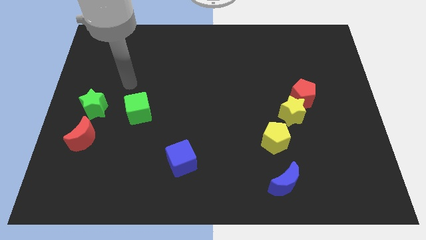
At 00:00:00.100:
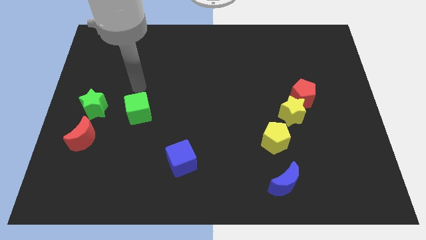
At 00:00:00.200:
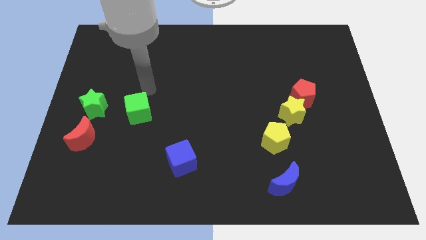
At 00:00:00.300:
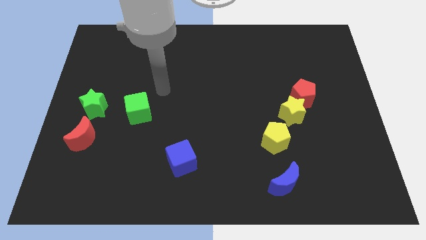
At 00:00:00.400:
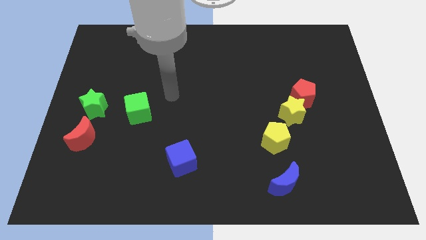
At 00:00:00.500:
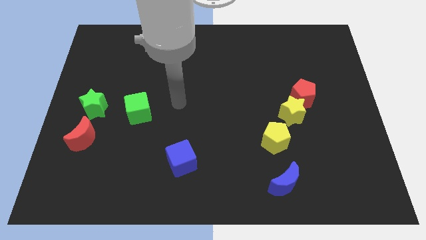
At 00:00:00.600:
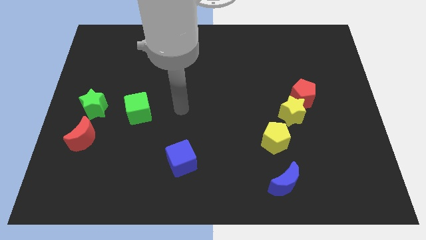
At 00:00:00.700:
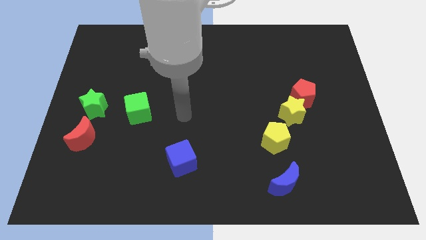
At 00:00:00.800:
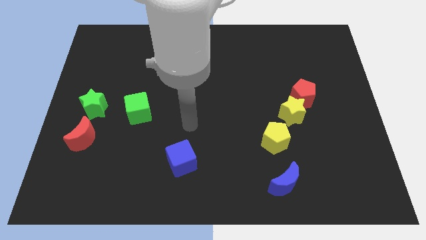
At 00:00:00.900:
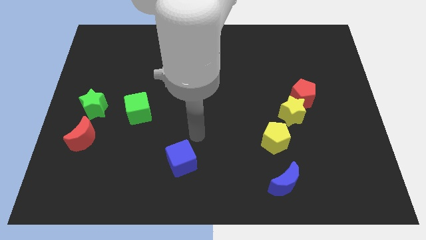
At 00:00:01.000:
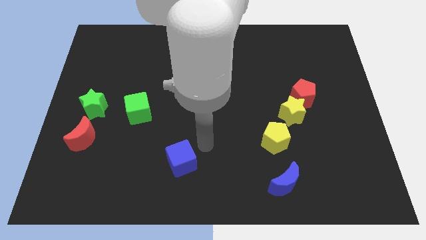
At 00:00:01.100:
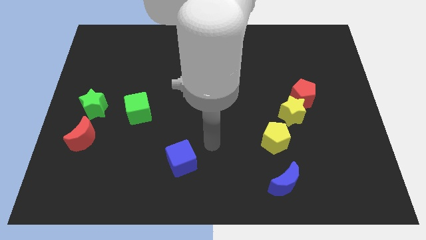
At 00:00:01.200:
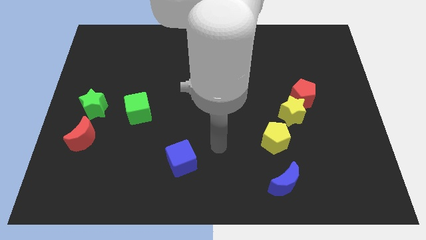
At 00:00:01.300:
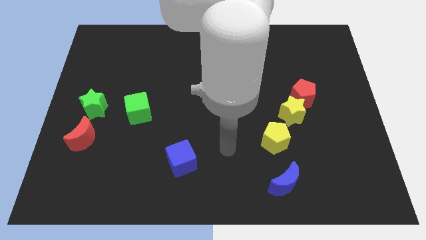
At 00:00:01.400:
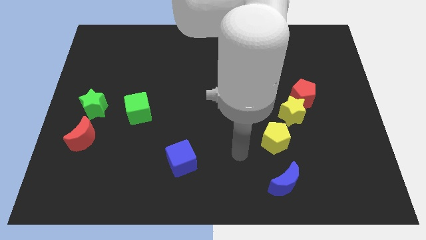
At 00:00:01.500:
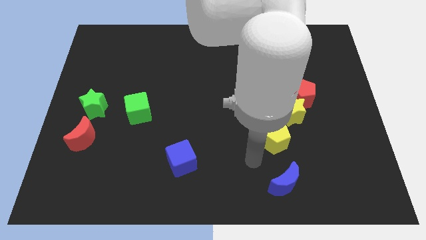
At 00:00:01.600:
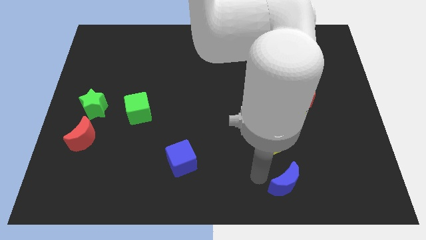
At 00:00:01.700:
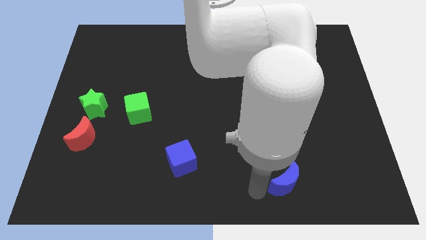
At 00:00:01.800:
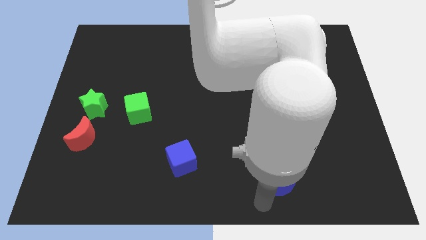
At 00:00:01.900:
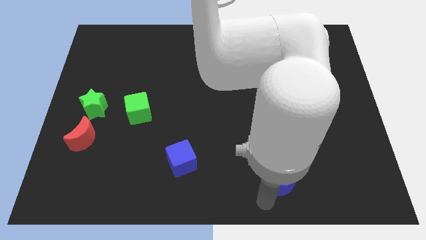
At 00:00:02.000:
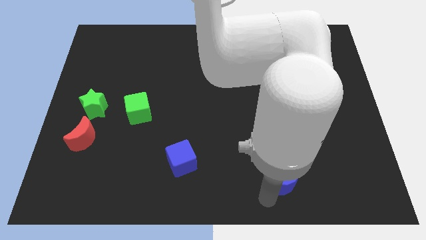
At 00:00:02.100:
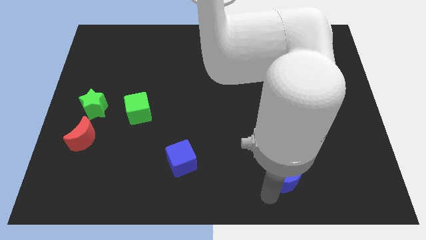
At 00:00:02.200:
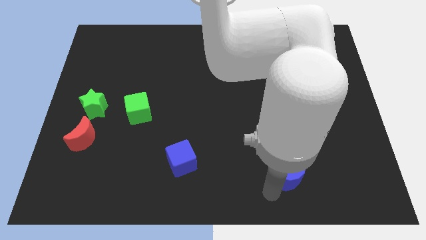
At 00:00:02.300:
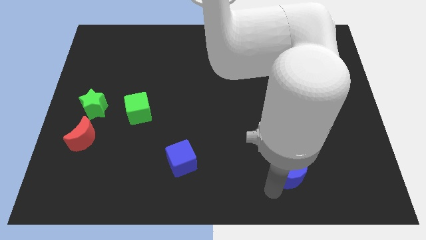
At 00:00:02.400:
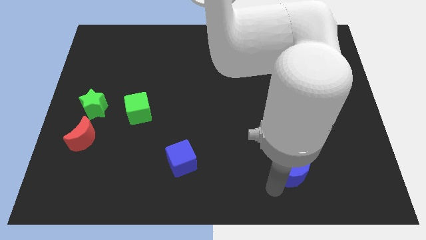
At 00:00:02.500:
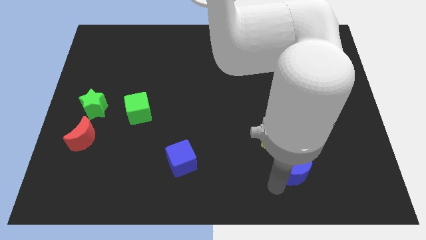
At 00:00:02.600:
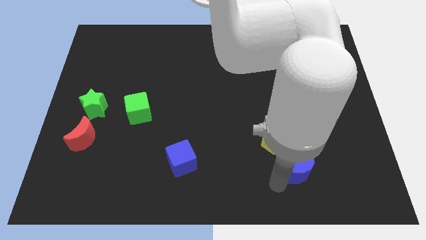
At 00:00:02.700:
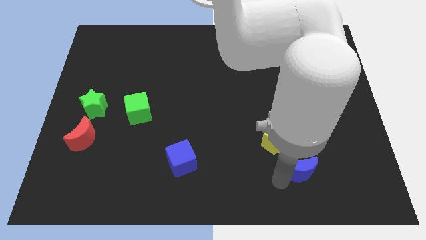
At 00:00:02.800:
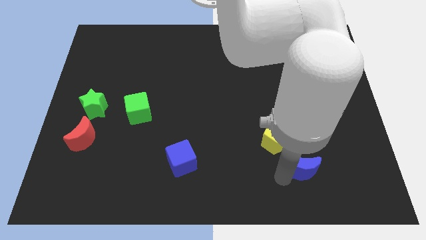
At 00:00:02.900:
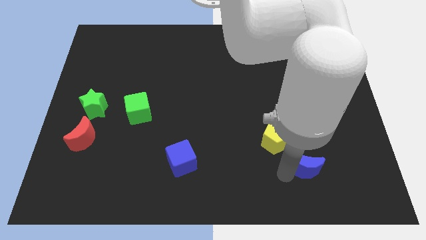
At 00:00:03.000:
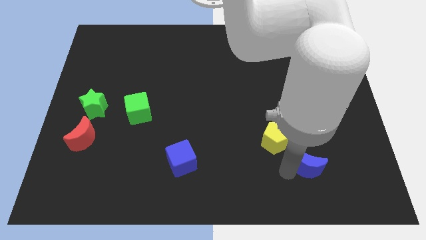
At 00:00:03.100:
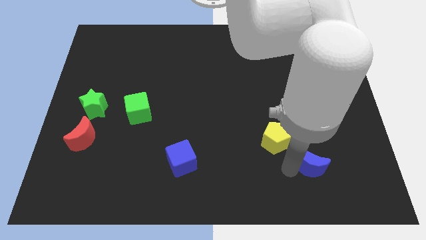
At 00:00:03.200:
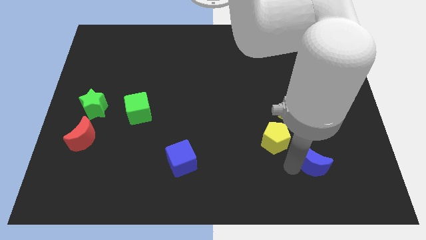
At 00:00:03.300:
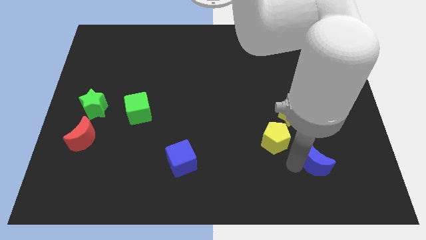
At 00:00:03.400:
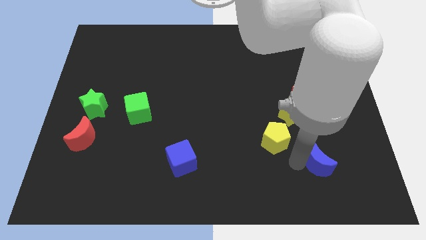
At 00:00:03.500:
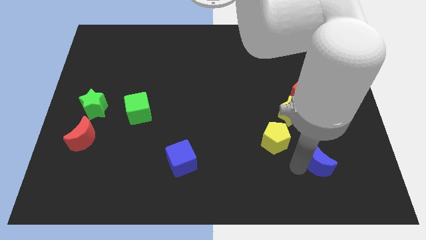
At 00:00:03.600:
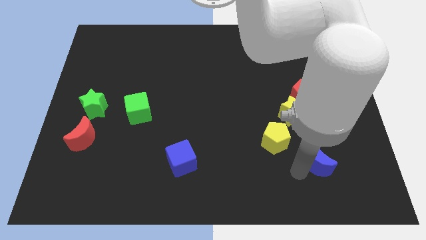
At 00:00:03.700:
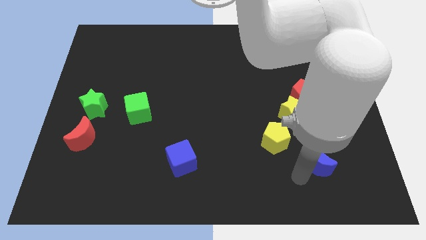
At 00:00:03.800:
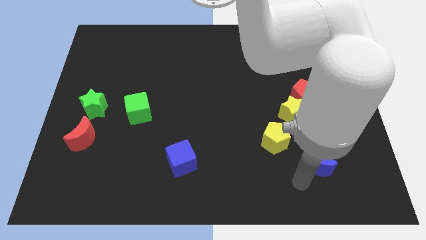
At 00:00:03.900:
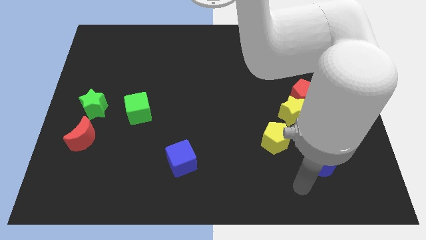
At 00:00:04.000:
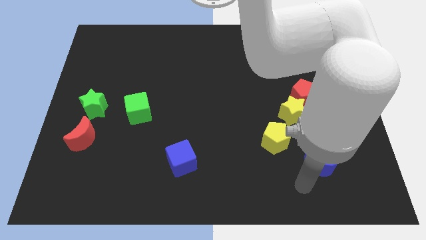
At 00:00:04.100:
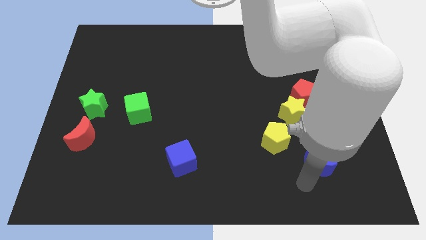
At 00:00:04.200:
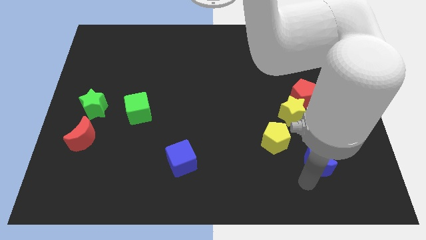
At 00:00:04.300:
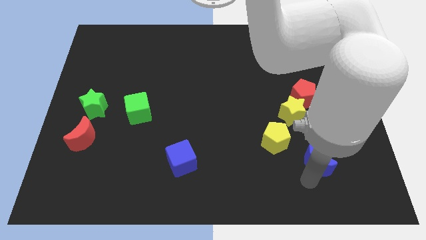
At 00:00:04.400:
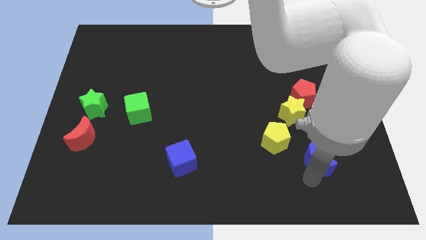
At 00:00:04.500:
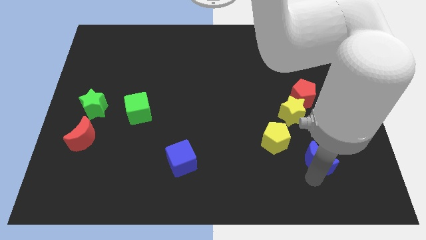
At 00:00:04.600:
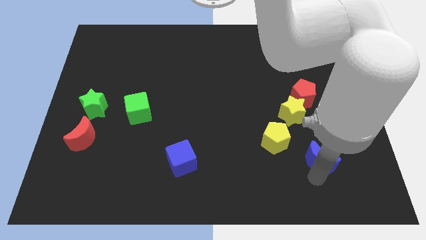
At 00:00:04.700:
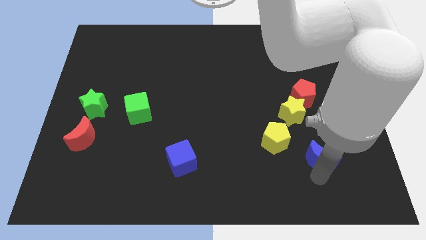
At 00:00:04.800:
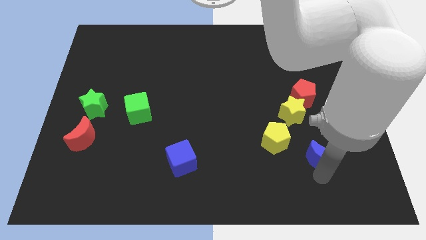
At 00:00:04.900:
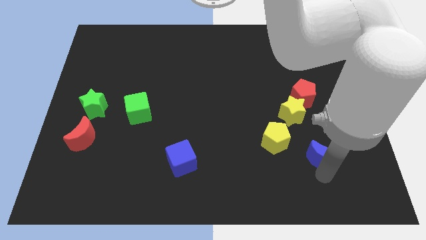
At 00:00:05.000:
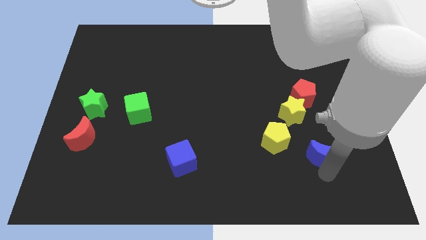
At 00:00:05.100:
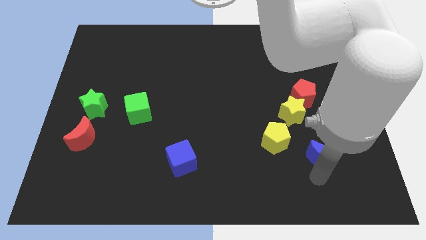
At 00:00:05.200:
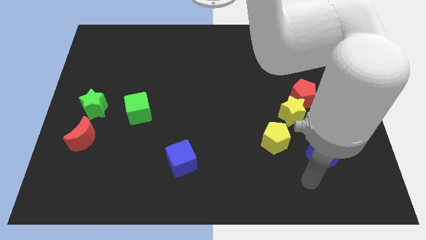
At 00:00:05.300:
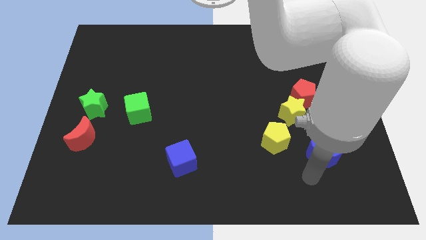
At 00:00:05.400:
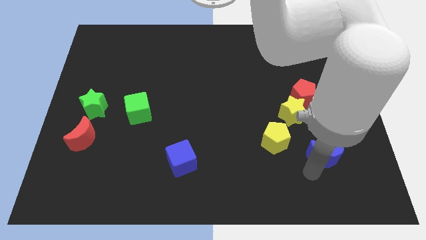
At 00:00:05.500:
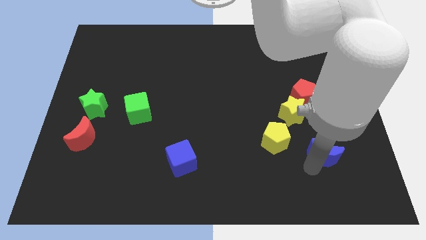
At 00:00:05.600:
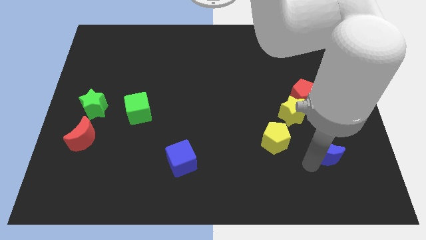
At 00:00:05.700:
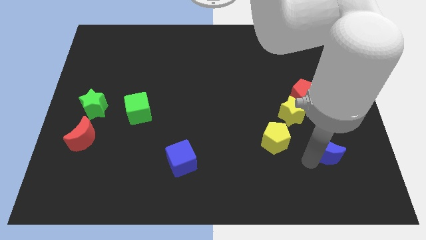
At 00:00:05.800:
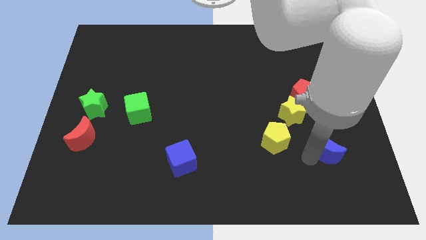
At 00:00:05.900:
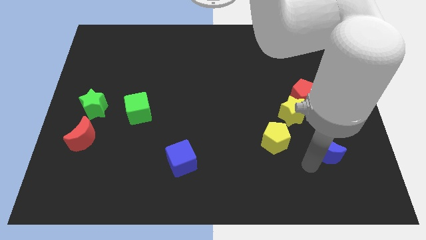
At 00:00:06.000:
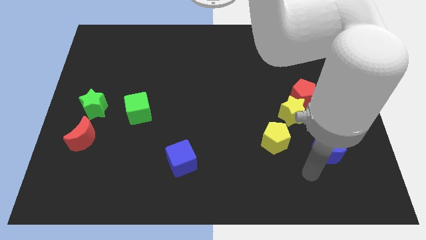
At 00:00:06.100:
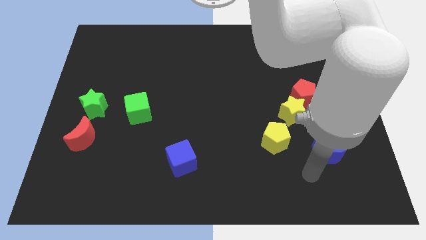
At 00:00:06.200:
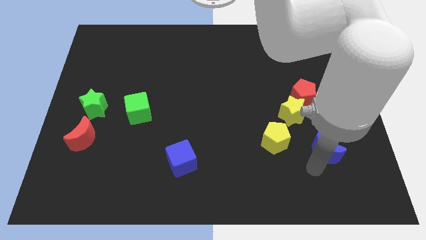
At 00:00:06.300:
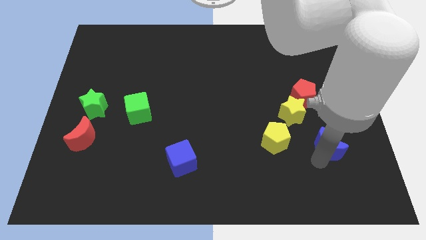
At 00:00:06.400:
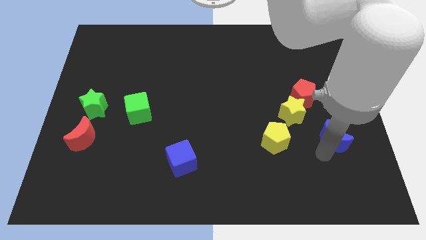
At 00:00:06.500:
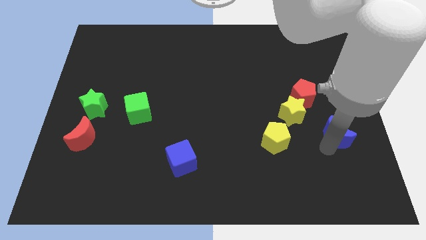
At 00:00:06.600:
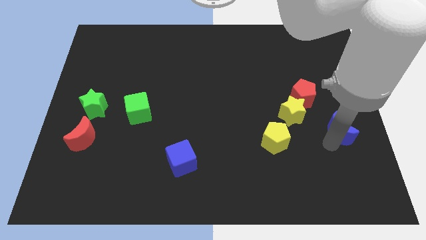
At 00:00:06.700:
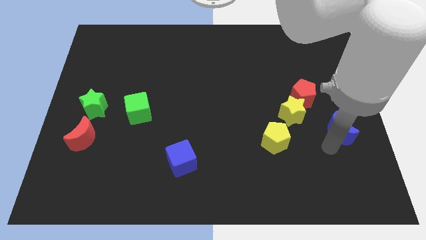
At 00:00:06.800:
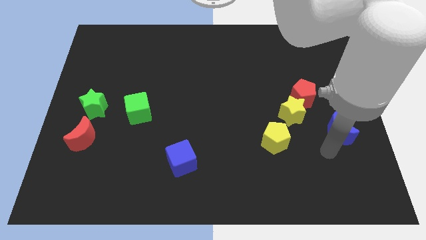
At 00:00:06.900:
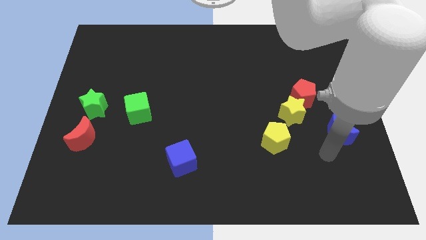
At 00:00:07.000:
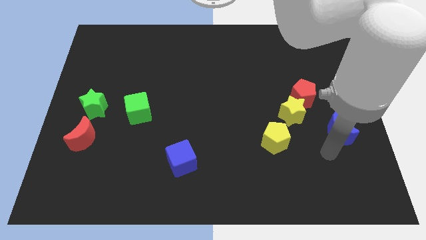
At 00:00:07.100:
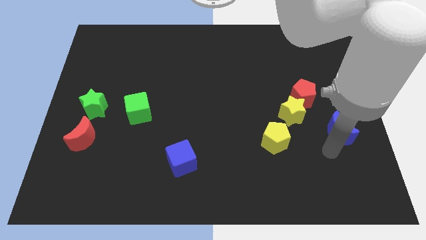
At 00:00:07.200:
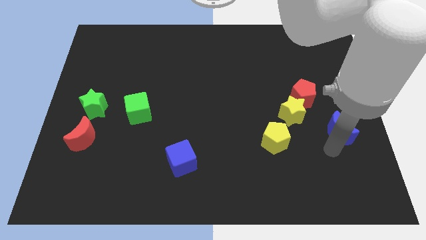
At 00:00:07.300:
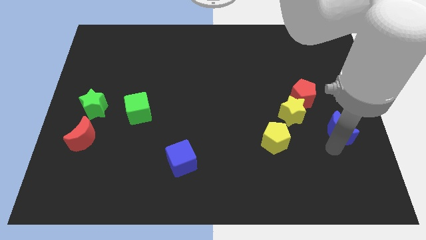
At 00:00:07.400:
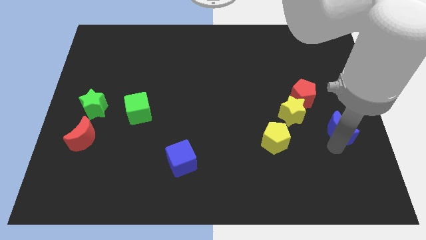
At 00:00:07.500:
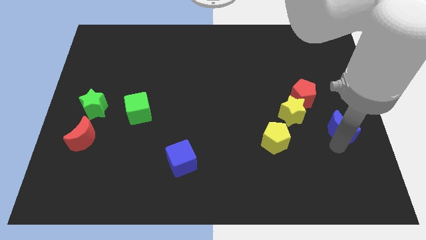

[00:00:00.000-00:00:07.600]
slide the blue moon to the right side
